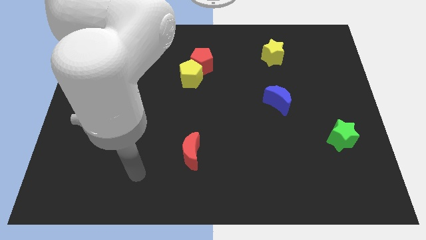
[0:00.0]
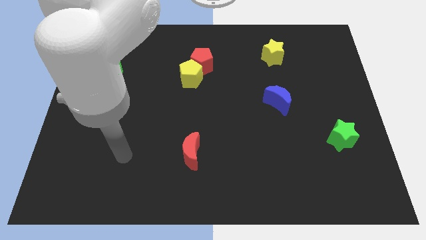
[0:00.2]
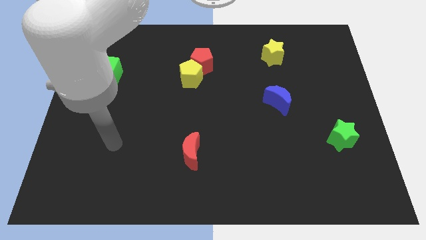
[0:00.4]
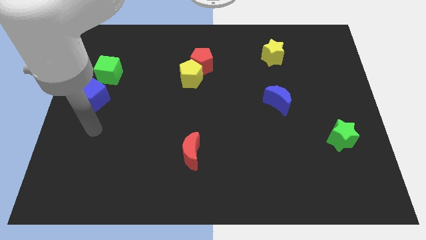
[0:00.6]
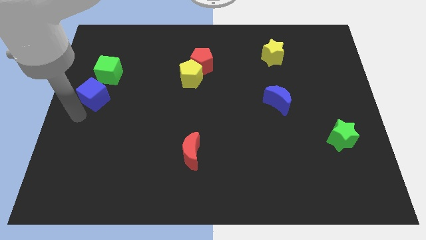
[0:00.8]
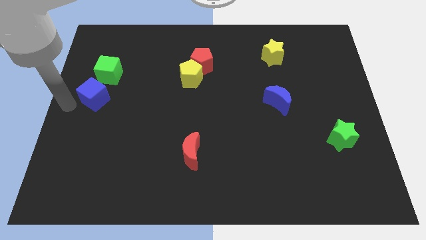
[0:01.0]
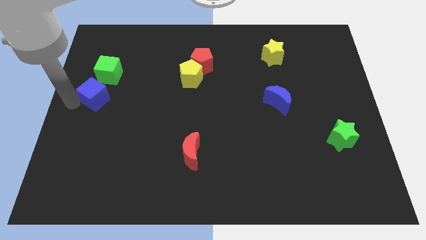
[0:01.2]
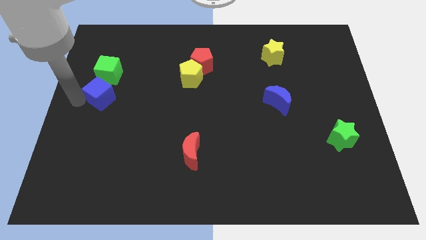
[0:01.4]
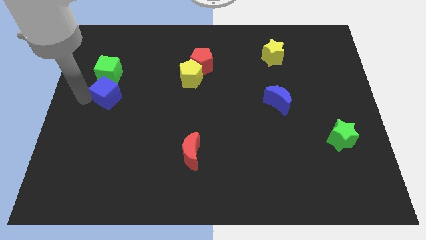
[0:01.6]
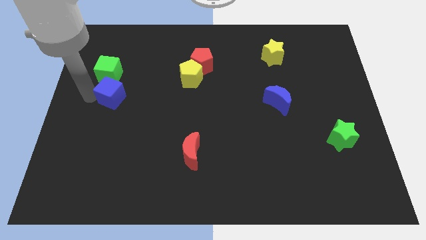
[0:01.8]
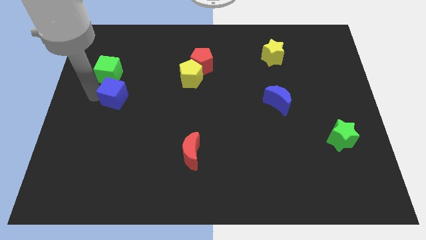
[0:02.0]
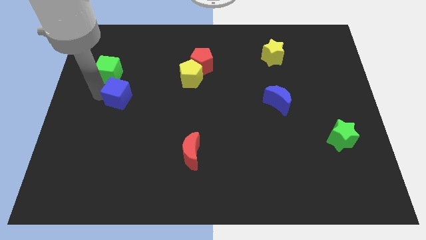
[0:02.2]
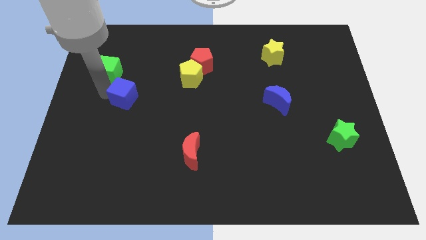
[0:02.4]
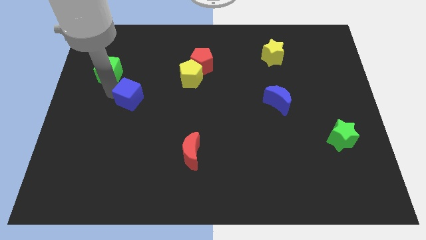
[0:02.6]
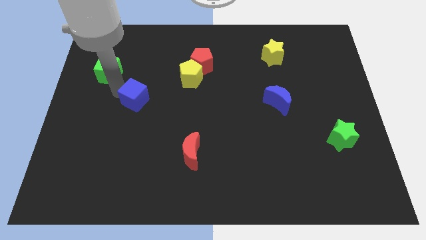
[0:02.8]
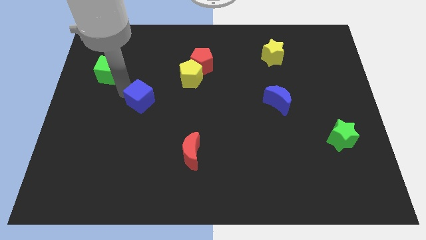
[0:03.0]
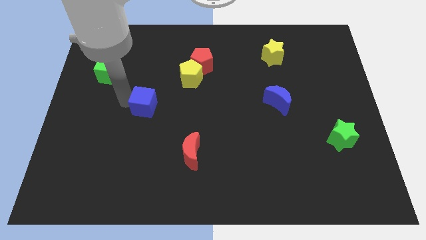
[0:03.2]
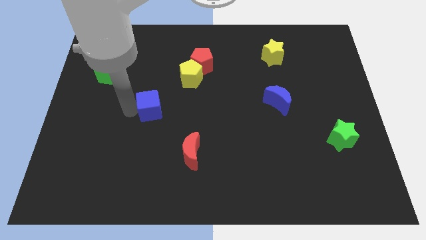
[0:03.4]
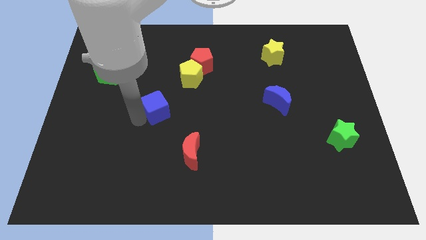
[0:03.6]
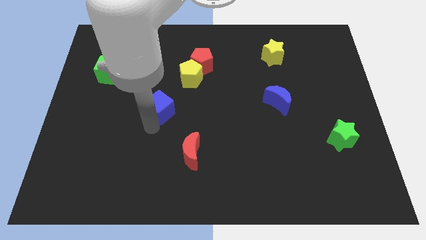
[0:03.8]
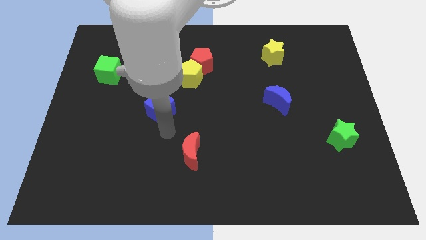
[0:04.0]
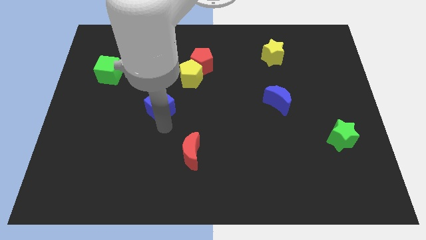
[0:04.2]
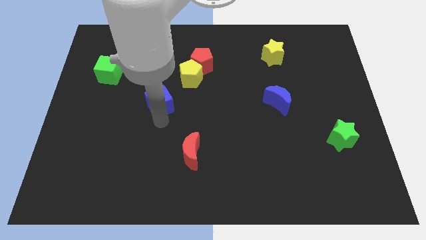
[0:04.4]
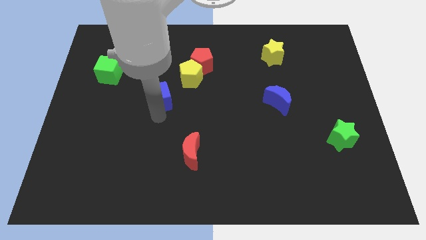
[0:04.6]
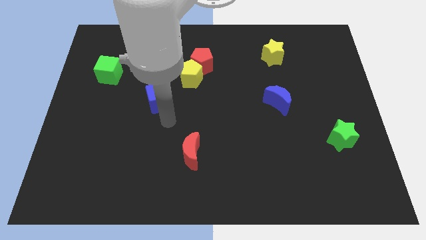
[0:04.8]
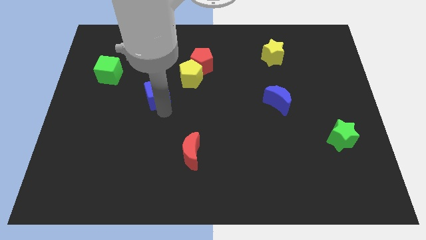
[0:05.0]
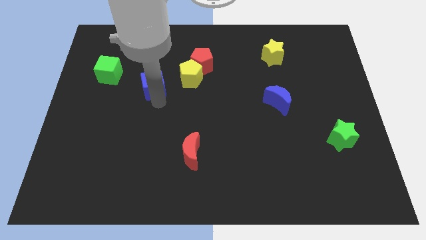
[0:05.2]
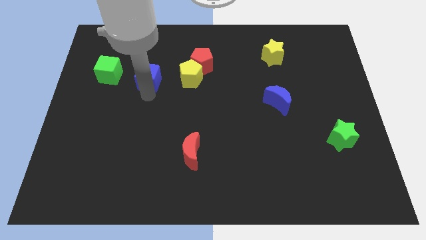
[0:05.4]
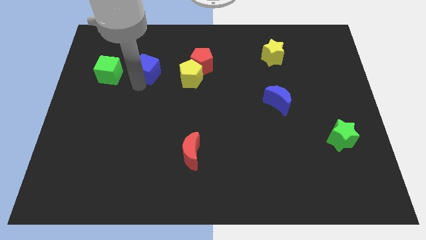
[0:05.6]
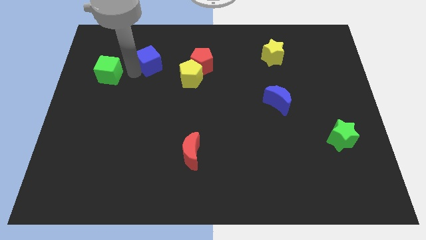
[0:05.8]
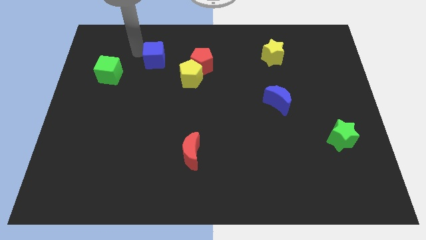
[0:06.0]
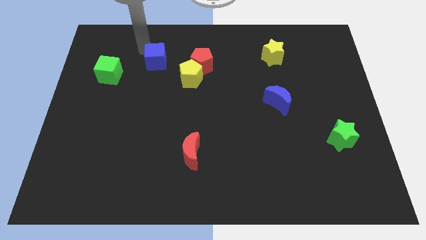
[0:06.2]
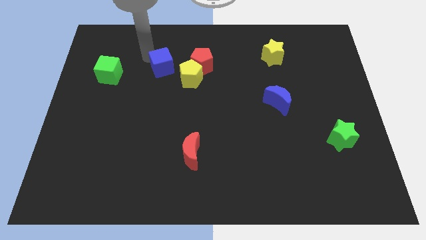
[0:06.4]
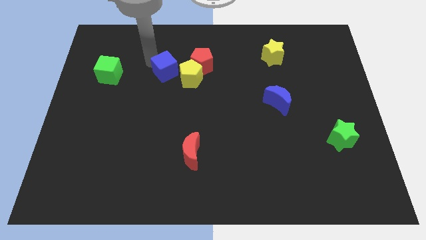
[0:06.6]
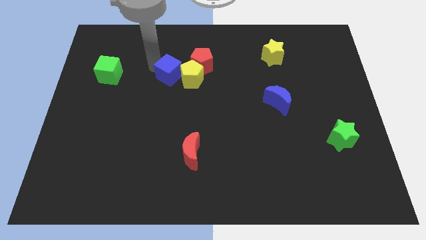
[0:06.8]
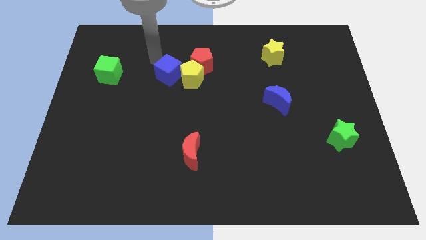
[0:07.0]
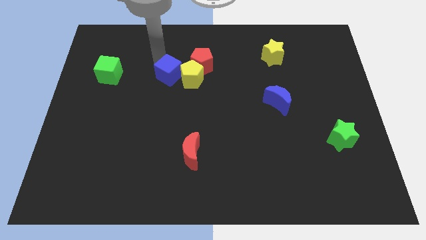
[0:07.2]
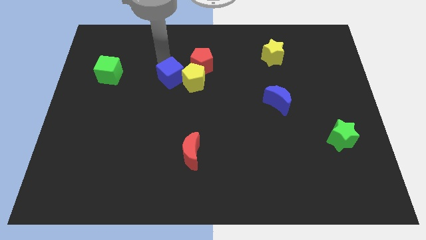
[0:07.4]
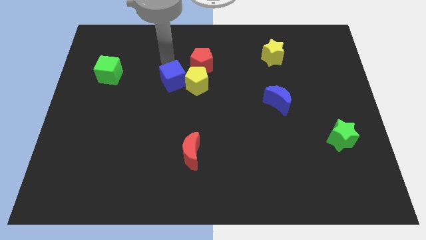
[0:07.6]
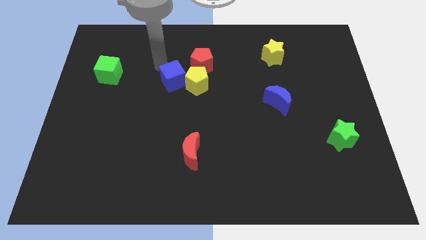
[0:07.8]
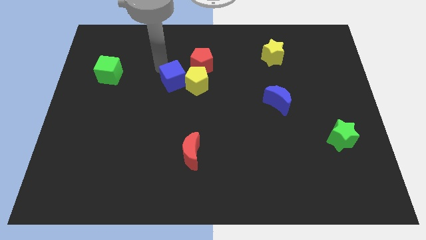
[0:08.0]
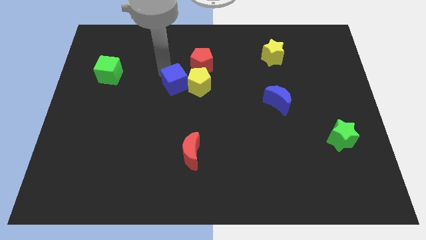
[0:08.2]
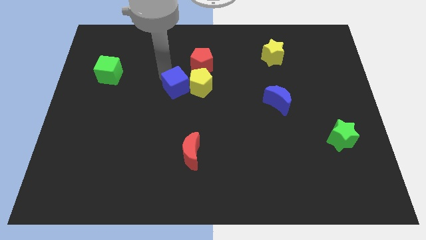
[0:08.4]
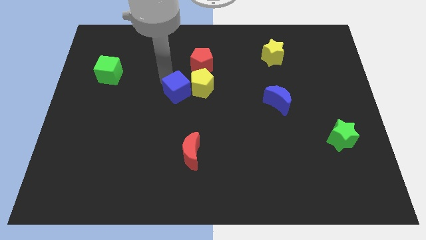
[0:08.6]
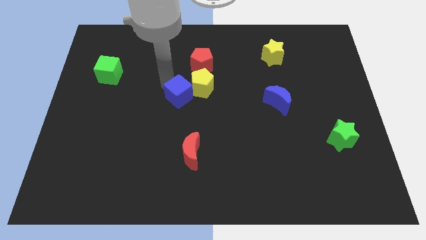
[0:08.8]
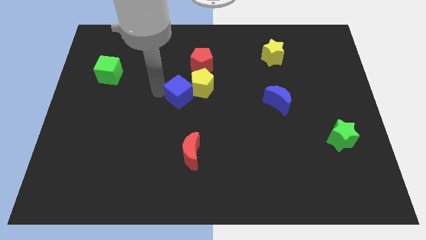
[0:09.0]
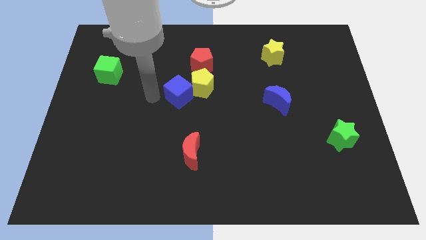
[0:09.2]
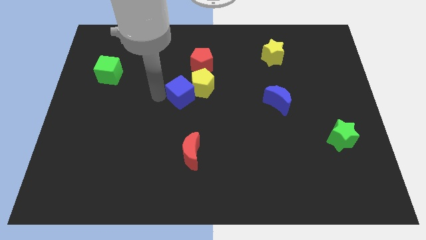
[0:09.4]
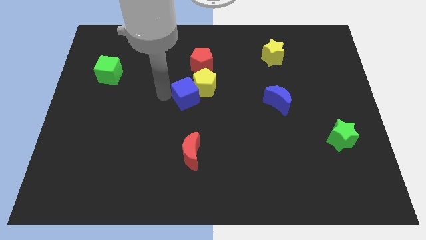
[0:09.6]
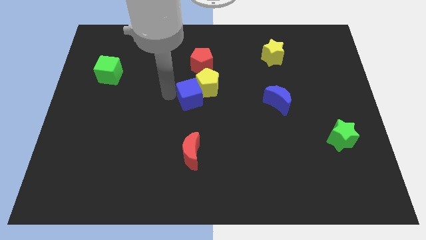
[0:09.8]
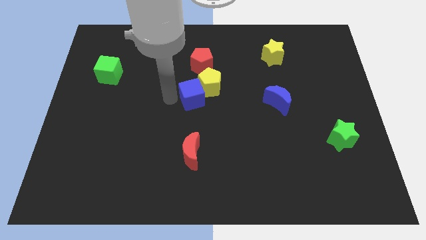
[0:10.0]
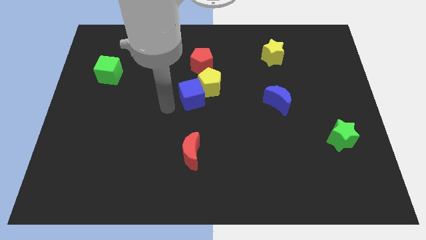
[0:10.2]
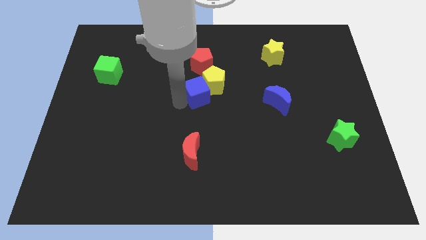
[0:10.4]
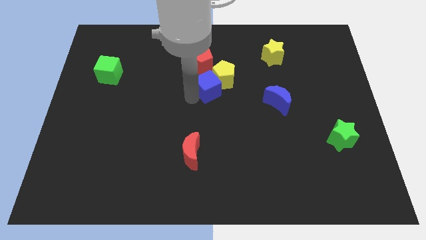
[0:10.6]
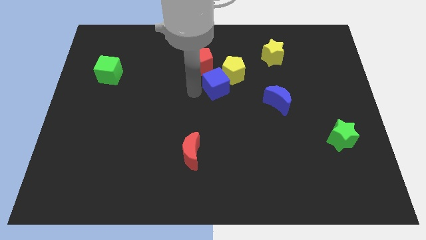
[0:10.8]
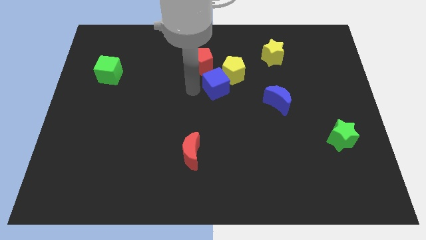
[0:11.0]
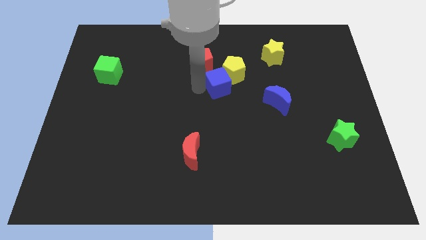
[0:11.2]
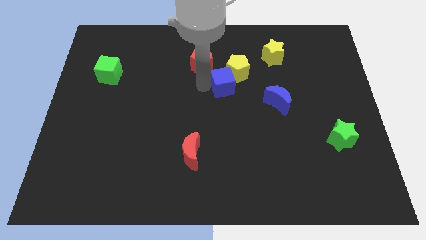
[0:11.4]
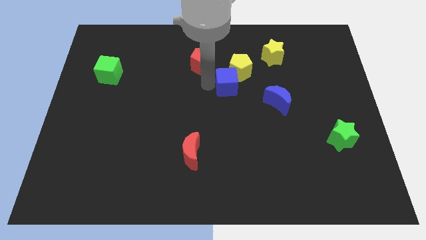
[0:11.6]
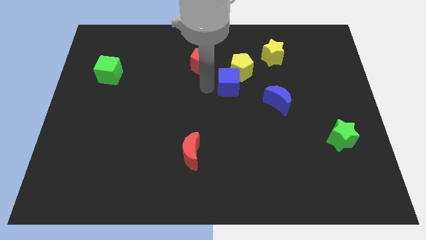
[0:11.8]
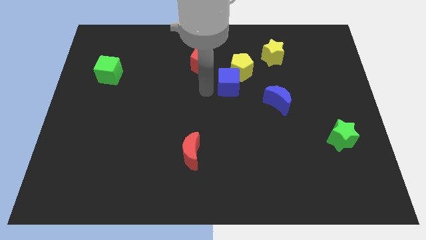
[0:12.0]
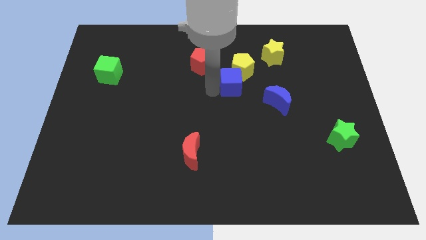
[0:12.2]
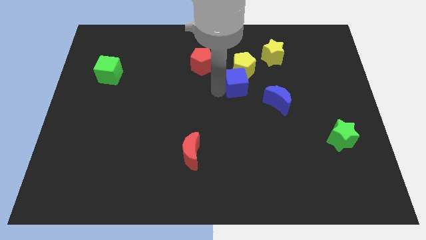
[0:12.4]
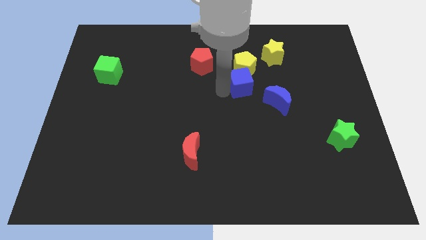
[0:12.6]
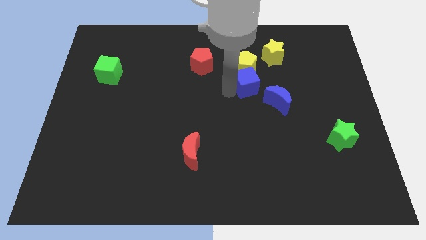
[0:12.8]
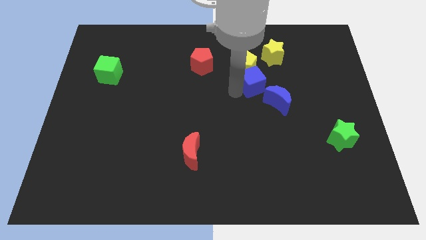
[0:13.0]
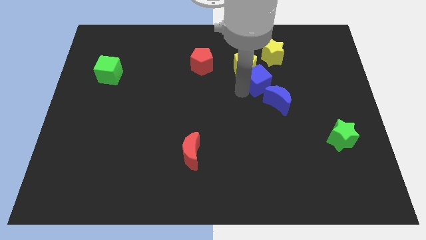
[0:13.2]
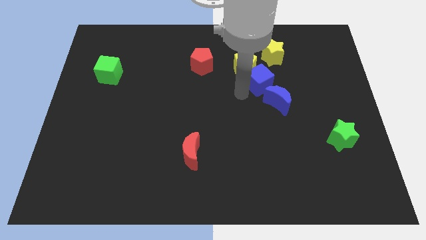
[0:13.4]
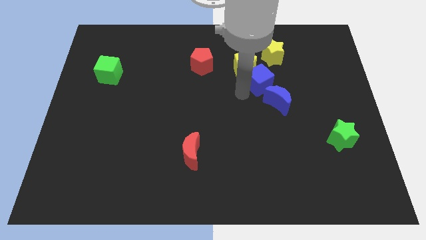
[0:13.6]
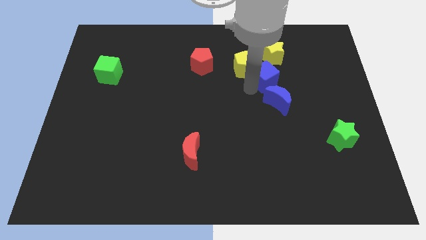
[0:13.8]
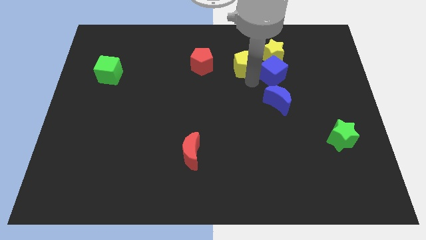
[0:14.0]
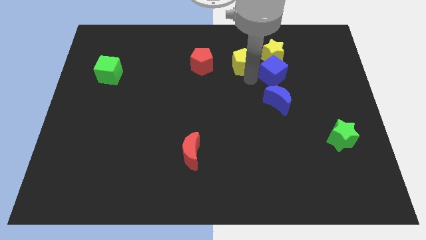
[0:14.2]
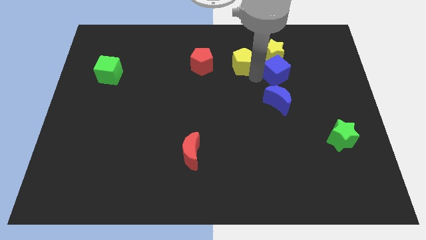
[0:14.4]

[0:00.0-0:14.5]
slide the blue cube to the bottom right of the yellow star
